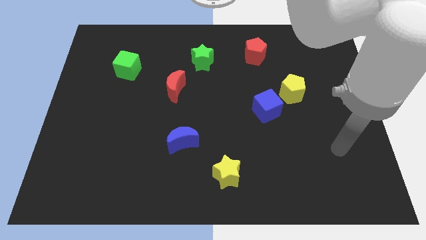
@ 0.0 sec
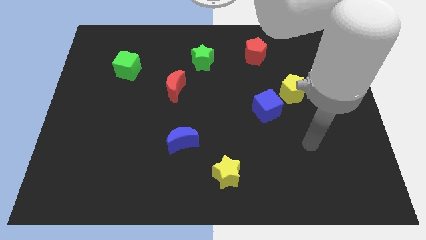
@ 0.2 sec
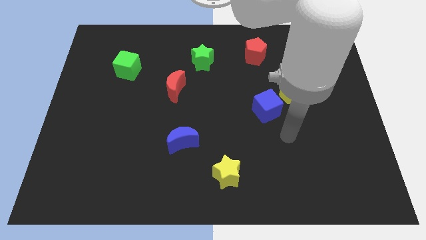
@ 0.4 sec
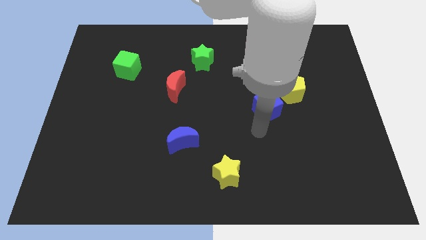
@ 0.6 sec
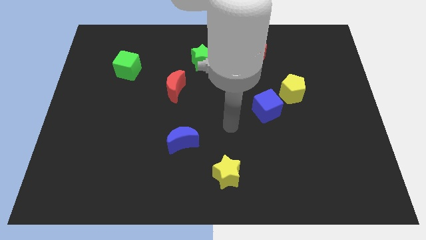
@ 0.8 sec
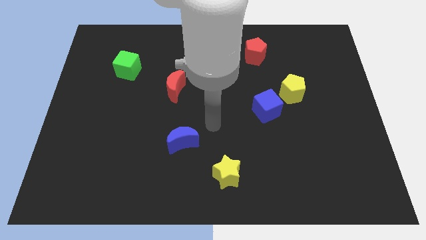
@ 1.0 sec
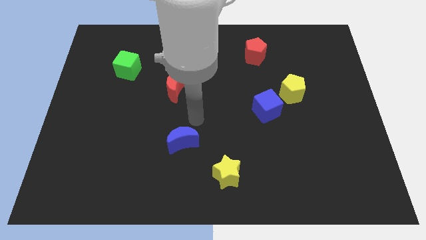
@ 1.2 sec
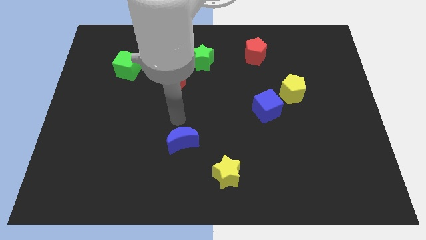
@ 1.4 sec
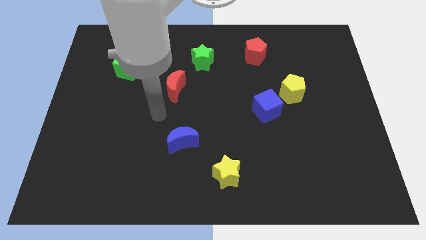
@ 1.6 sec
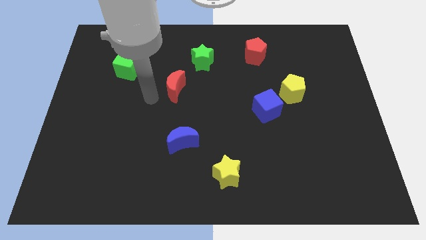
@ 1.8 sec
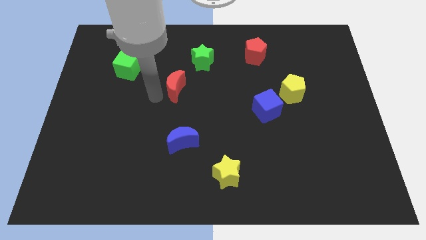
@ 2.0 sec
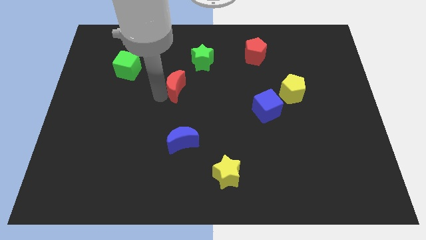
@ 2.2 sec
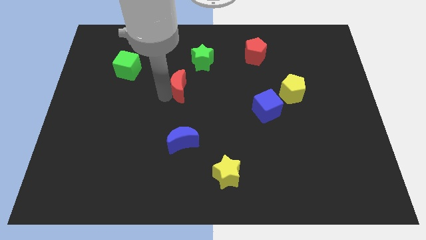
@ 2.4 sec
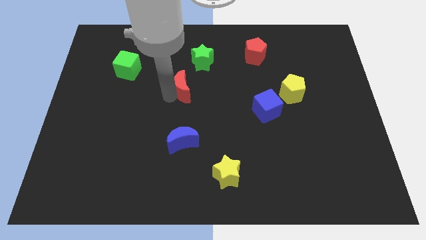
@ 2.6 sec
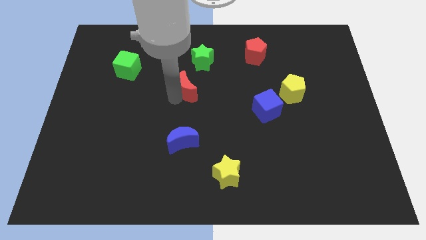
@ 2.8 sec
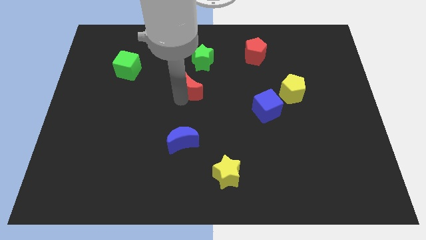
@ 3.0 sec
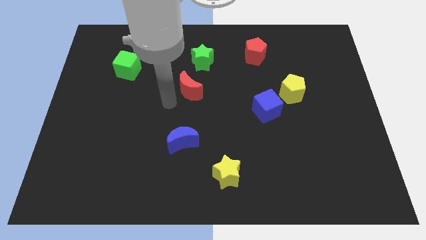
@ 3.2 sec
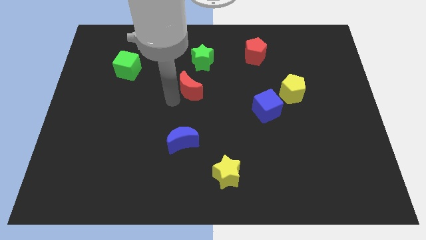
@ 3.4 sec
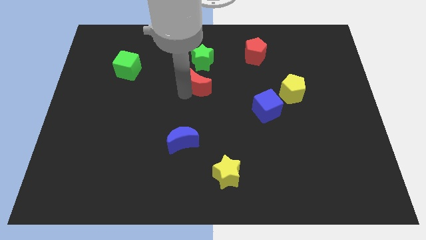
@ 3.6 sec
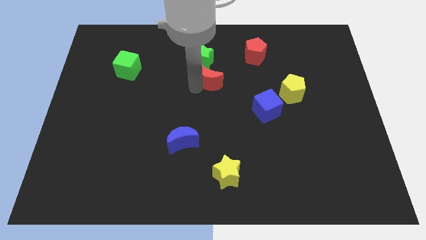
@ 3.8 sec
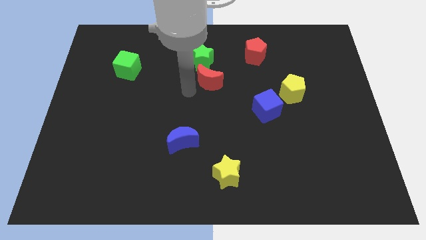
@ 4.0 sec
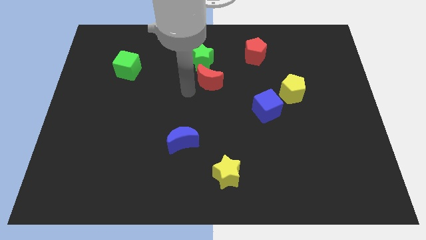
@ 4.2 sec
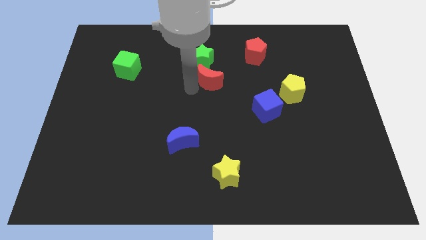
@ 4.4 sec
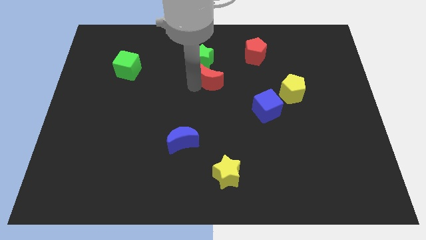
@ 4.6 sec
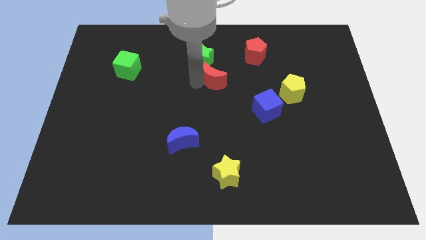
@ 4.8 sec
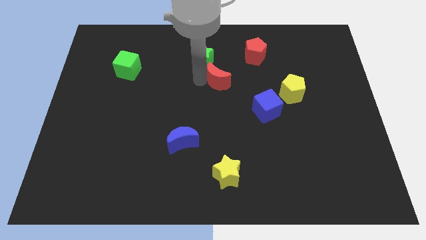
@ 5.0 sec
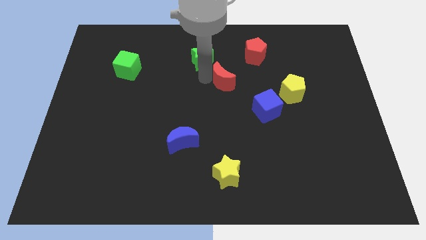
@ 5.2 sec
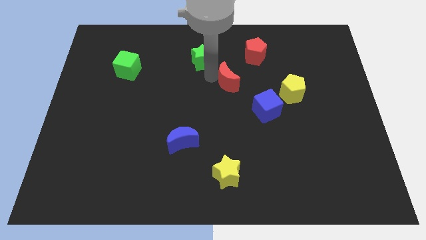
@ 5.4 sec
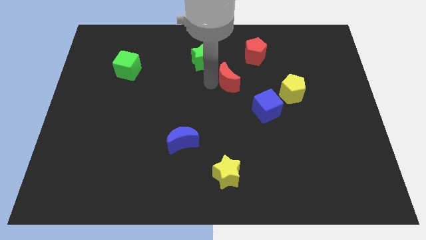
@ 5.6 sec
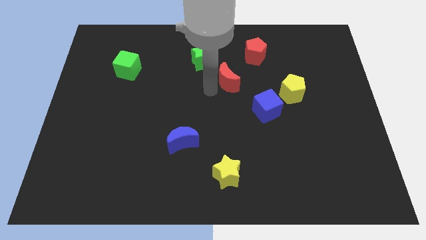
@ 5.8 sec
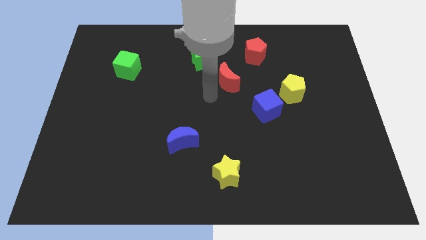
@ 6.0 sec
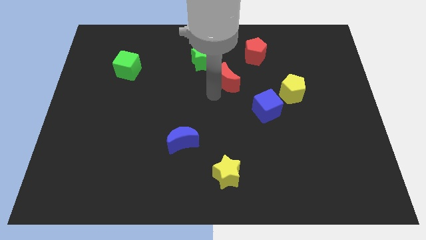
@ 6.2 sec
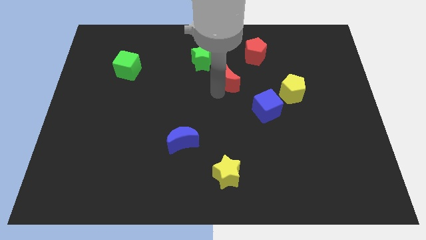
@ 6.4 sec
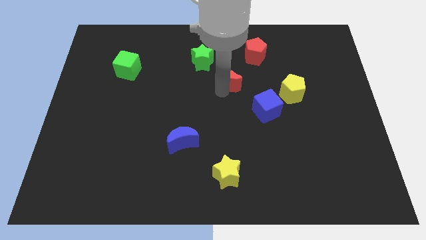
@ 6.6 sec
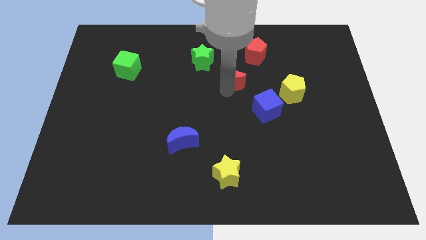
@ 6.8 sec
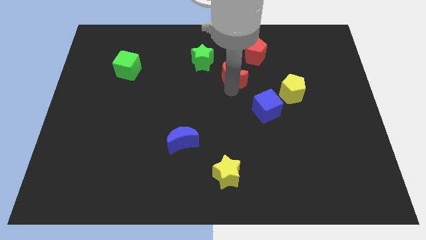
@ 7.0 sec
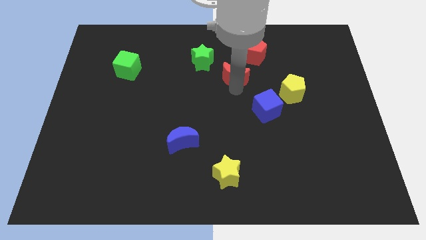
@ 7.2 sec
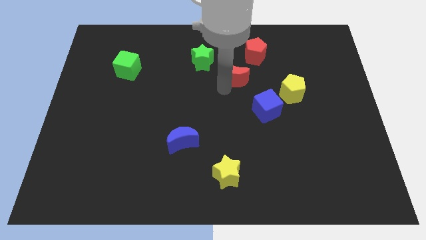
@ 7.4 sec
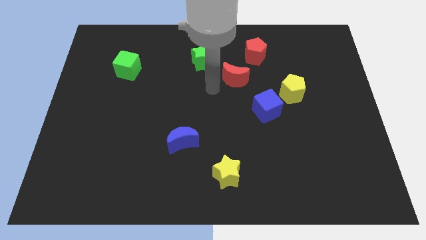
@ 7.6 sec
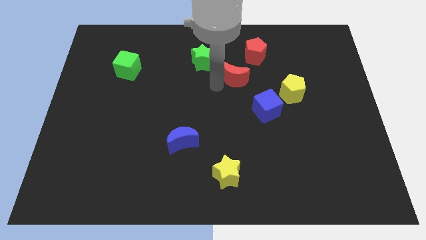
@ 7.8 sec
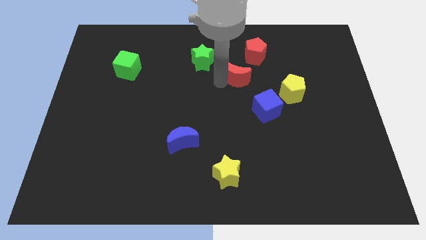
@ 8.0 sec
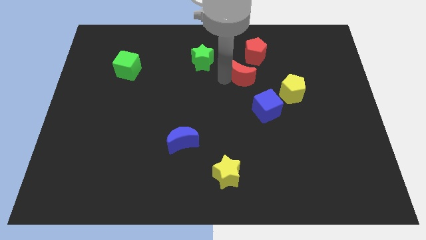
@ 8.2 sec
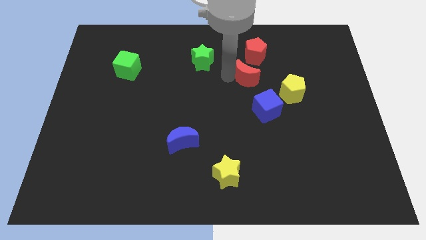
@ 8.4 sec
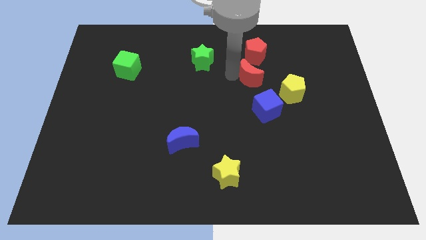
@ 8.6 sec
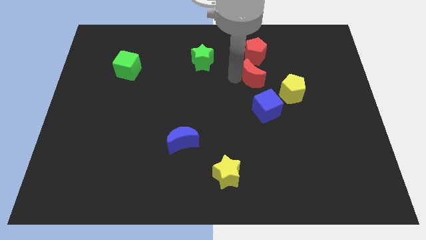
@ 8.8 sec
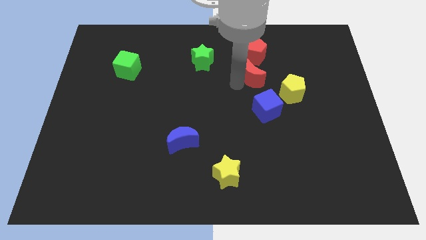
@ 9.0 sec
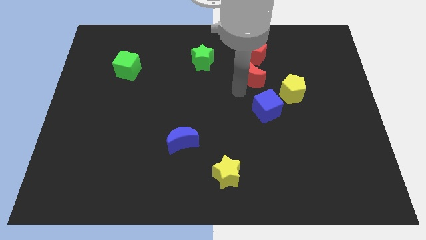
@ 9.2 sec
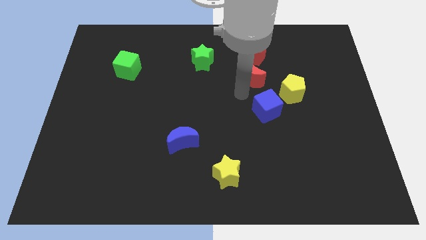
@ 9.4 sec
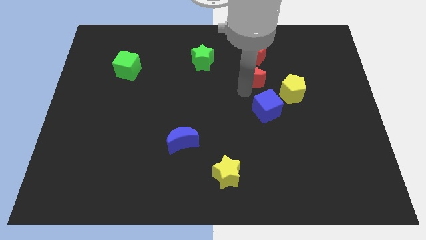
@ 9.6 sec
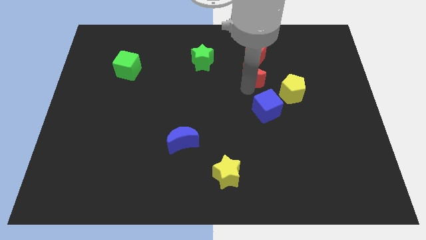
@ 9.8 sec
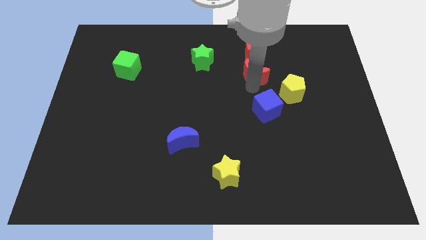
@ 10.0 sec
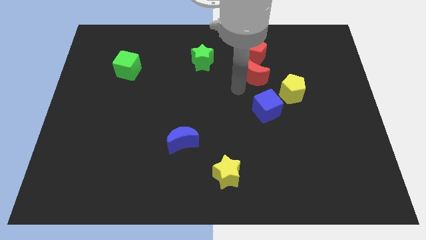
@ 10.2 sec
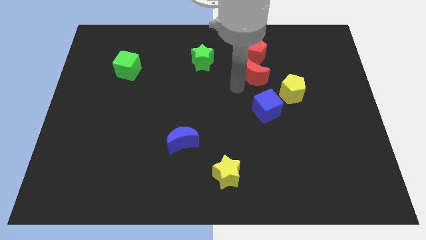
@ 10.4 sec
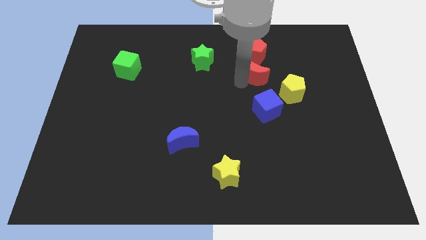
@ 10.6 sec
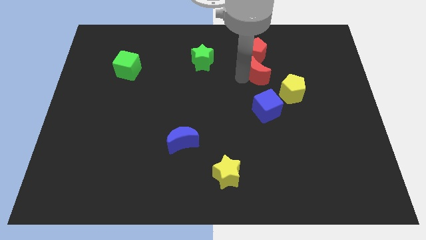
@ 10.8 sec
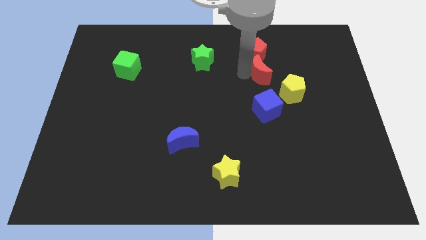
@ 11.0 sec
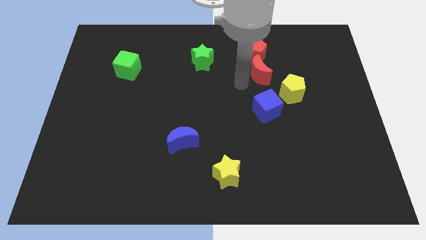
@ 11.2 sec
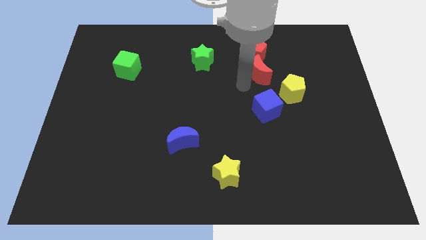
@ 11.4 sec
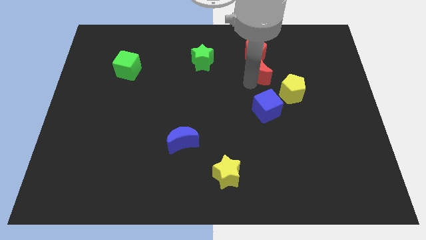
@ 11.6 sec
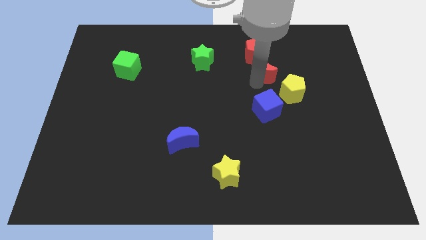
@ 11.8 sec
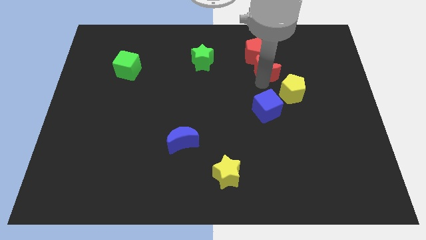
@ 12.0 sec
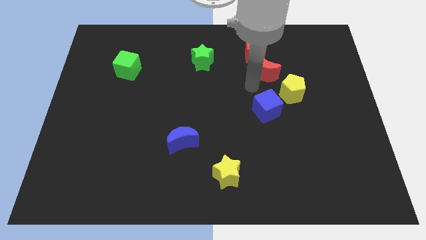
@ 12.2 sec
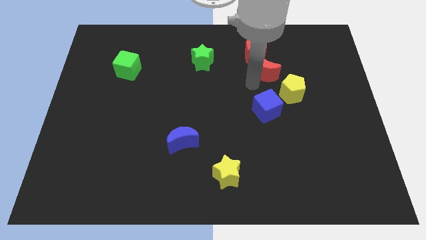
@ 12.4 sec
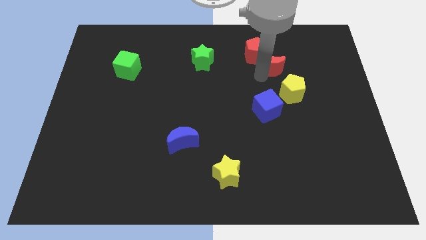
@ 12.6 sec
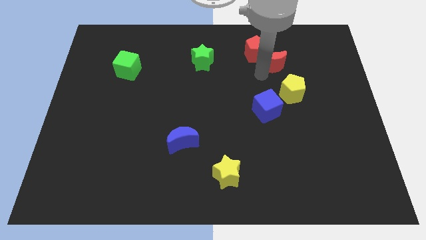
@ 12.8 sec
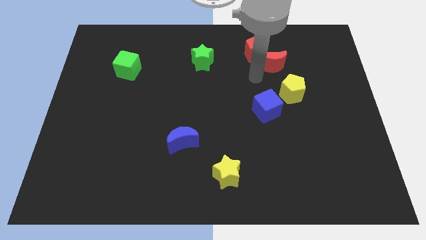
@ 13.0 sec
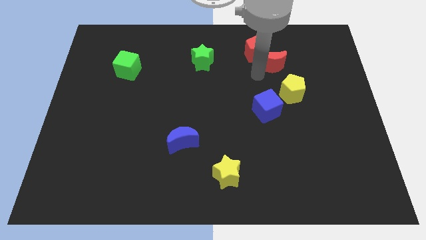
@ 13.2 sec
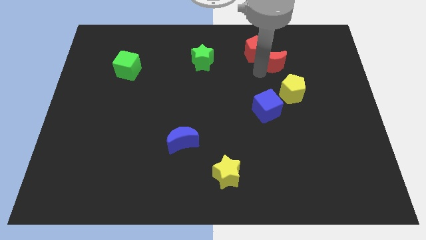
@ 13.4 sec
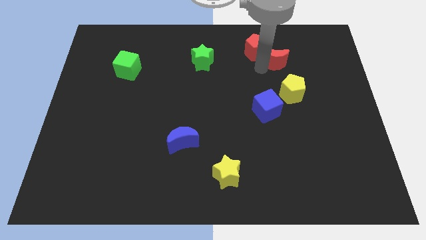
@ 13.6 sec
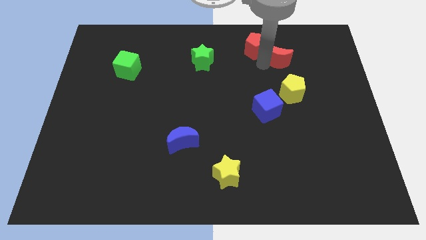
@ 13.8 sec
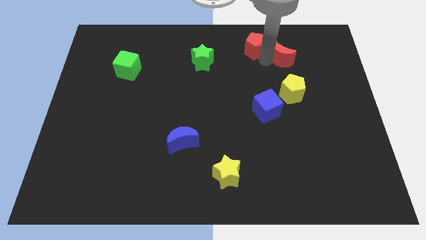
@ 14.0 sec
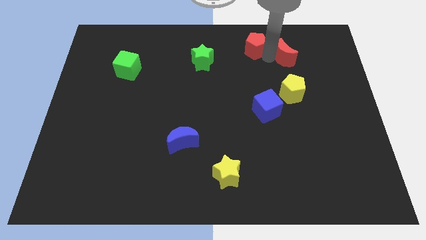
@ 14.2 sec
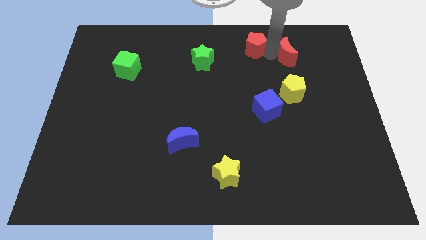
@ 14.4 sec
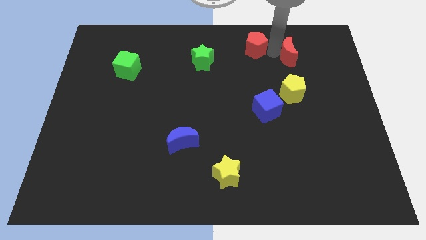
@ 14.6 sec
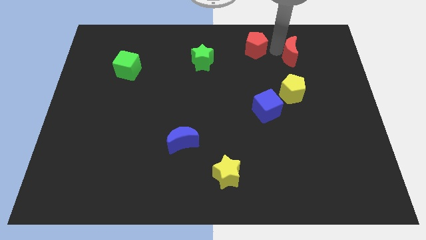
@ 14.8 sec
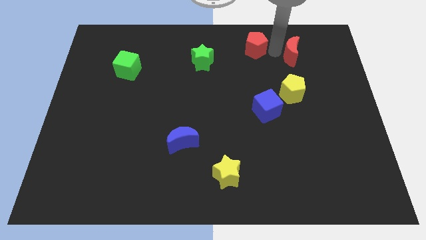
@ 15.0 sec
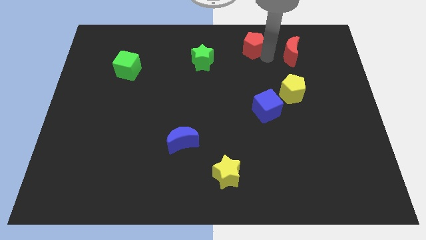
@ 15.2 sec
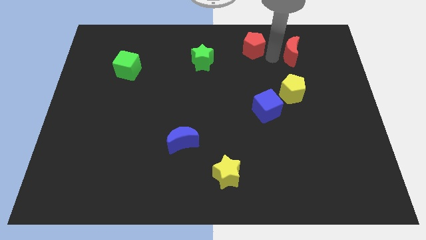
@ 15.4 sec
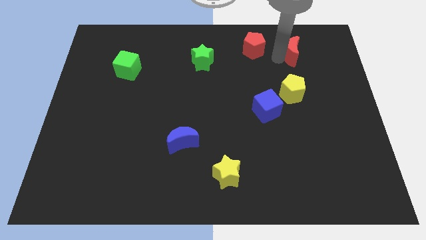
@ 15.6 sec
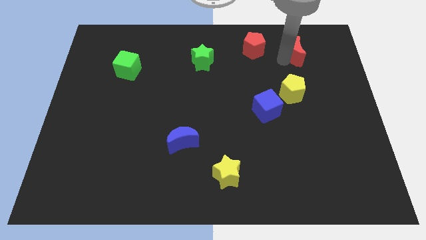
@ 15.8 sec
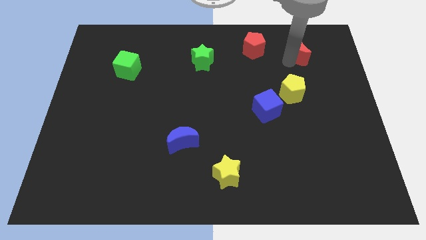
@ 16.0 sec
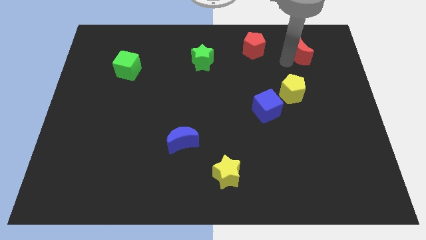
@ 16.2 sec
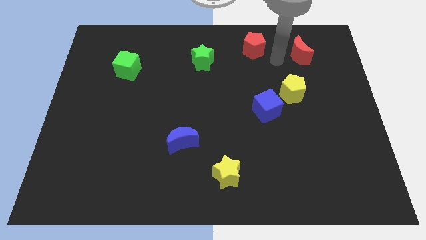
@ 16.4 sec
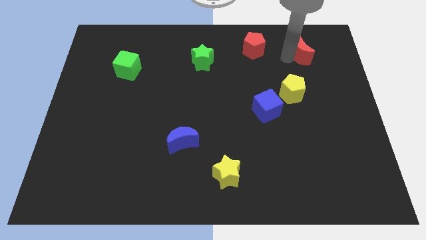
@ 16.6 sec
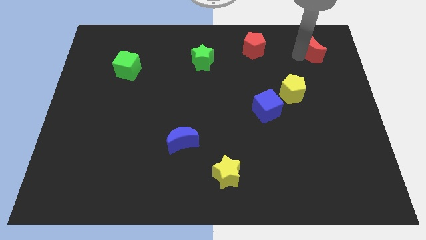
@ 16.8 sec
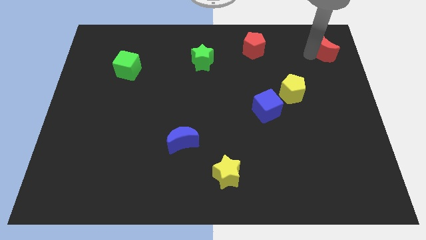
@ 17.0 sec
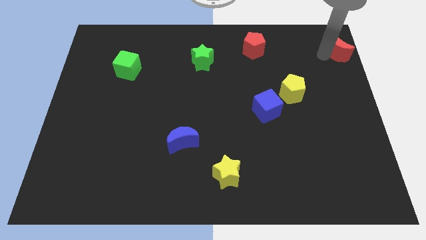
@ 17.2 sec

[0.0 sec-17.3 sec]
push the red moon to the upper right corner
